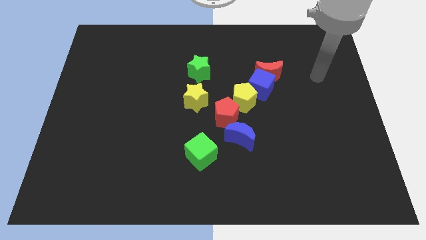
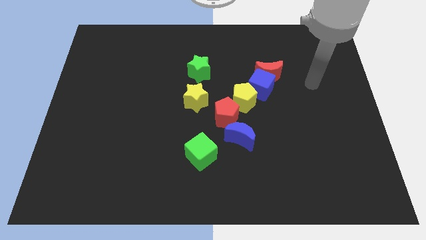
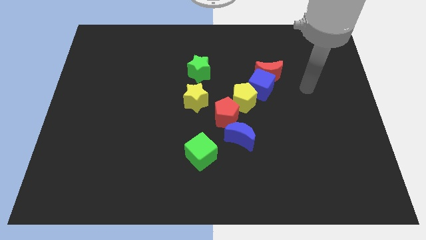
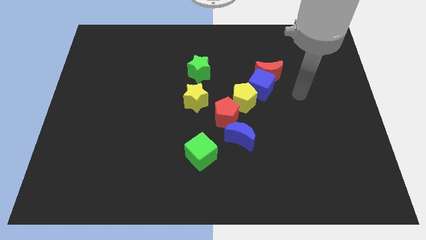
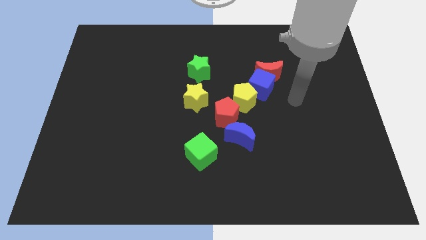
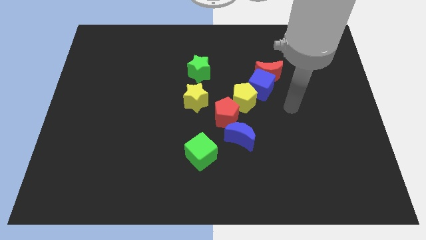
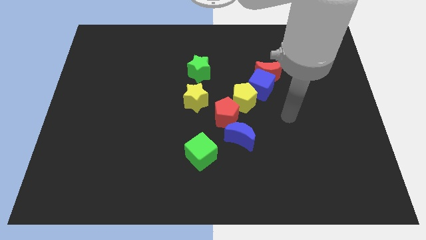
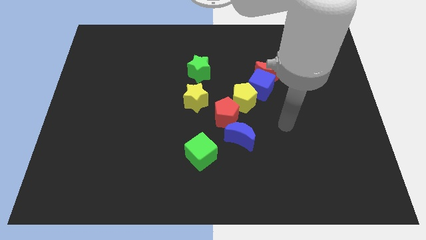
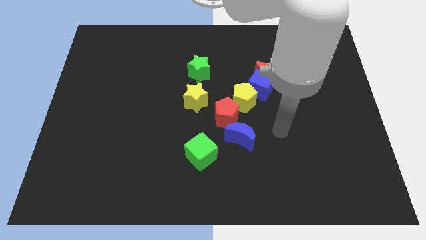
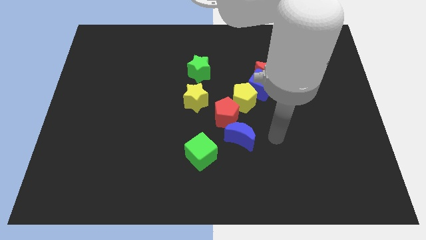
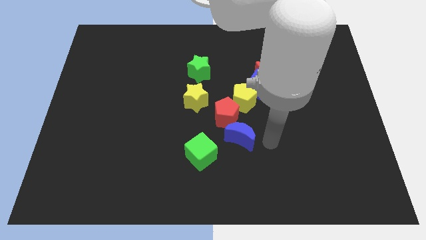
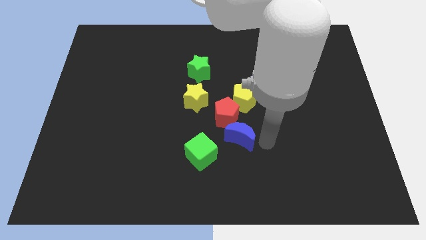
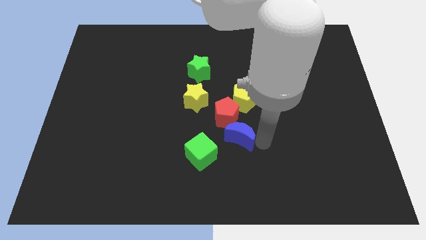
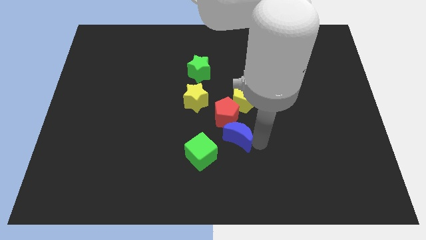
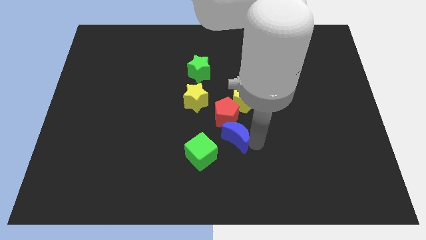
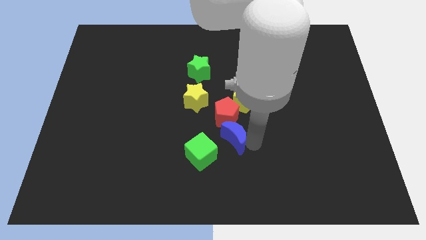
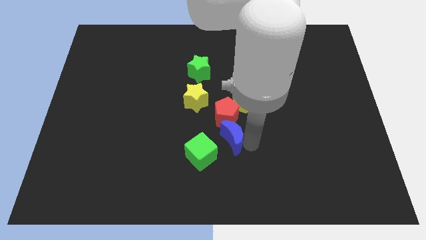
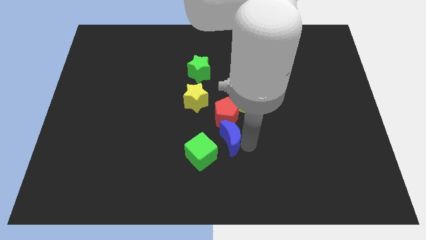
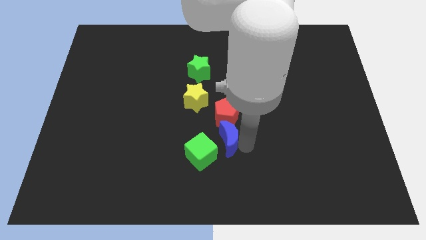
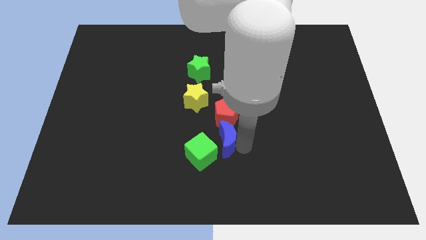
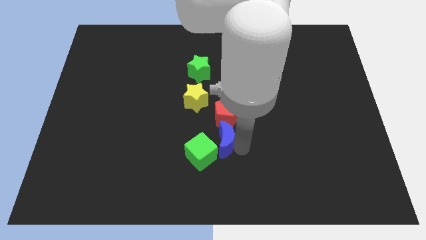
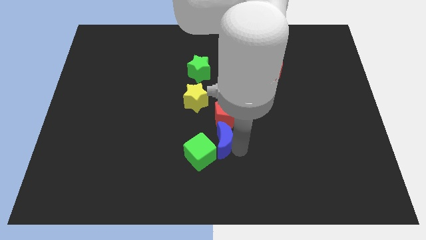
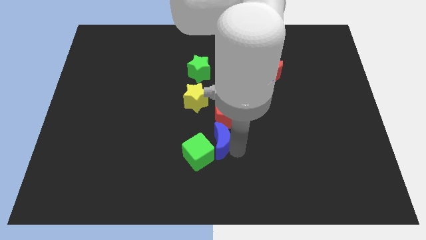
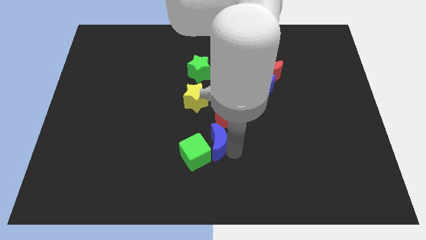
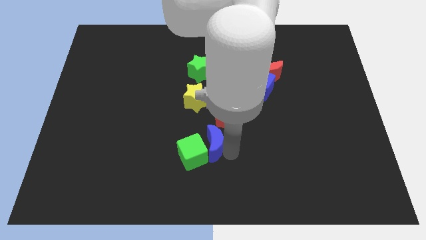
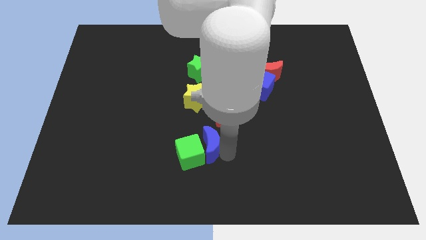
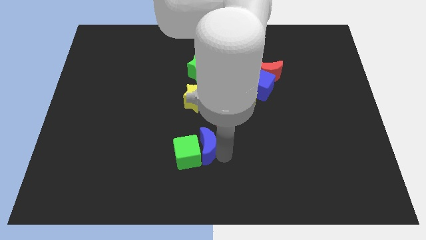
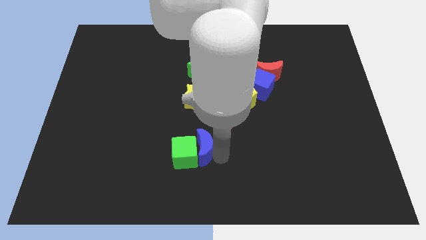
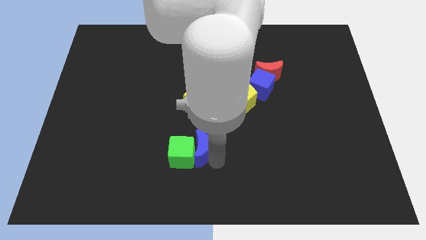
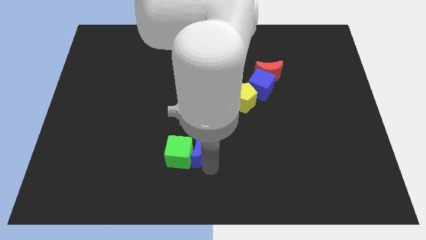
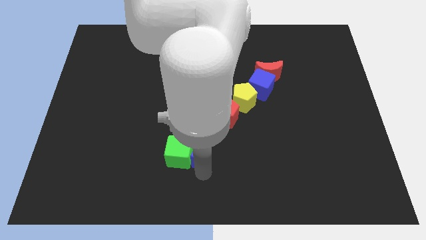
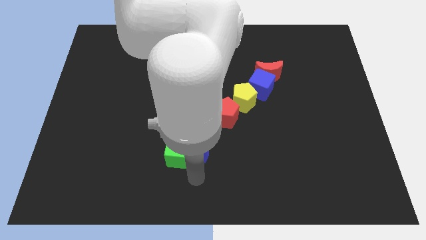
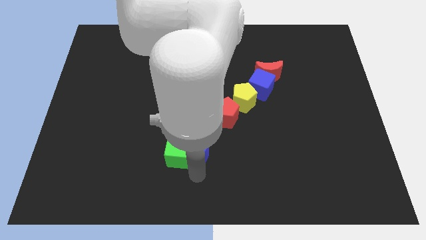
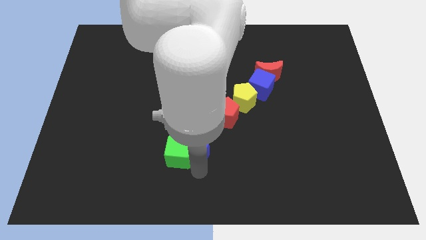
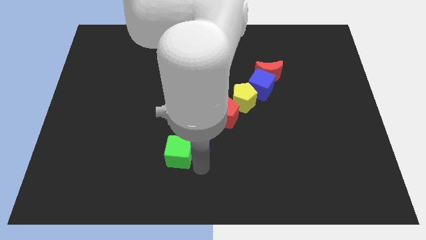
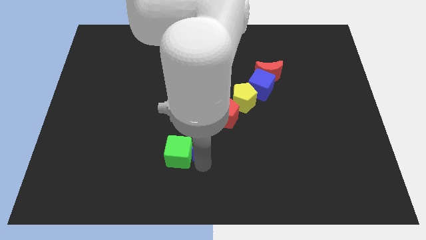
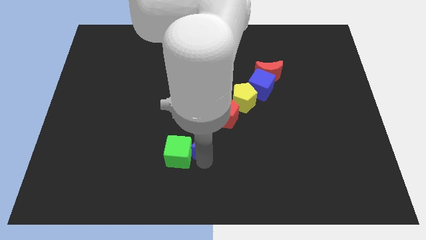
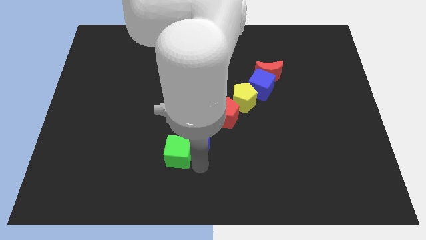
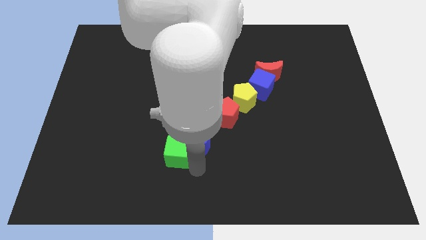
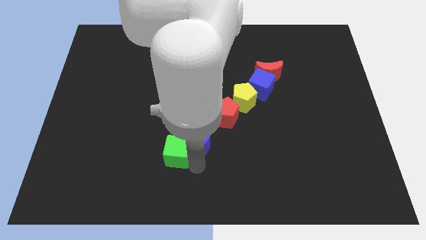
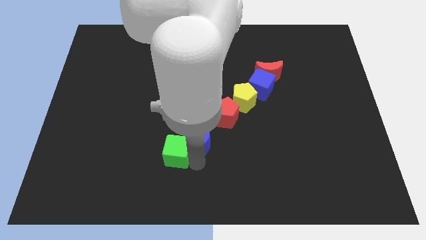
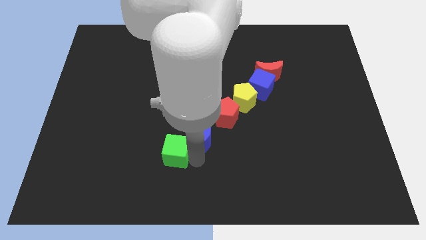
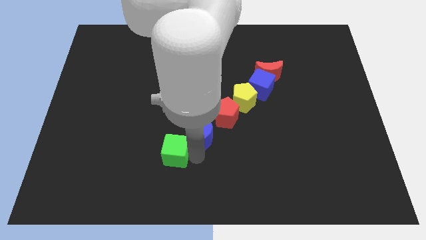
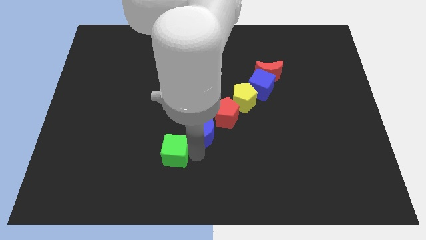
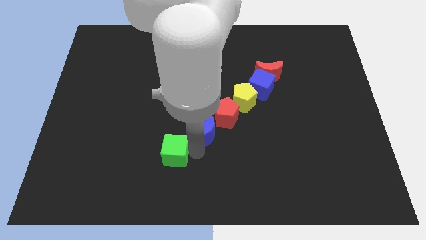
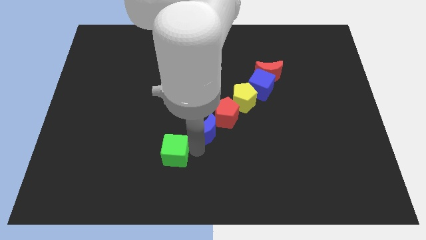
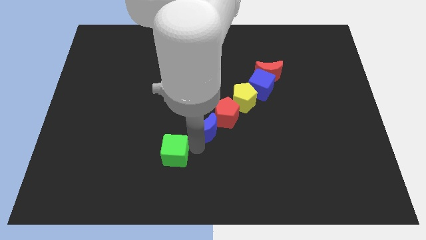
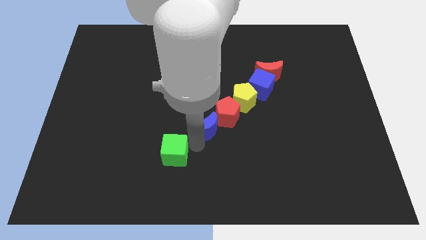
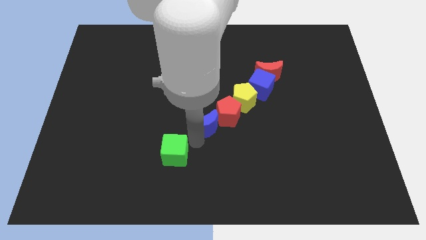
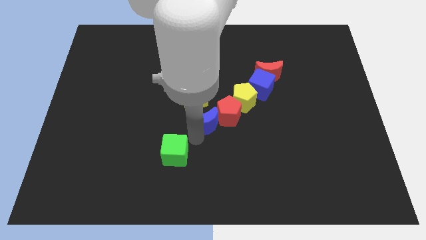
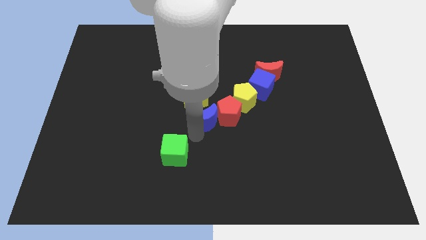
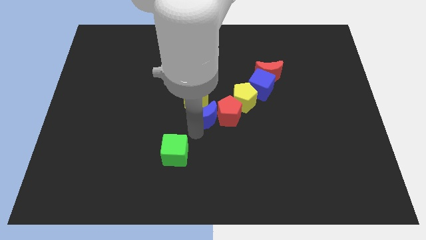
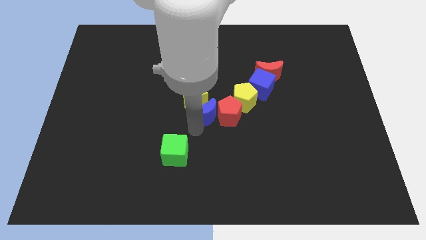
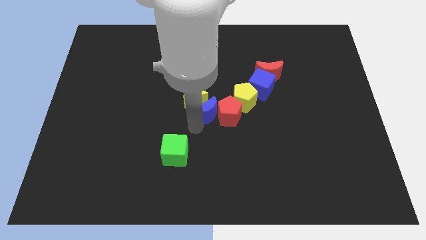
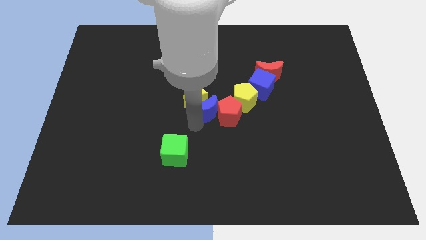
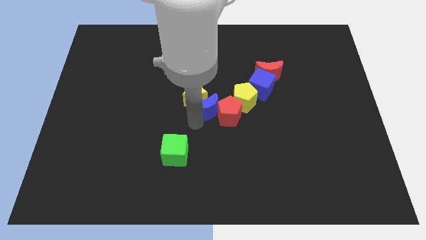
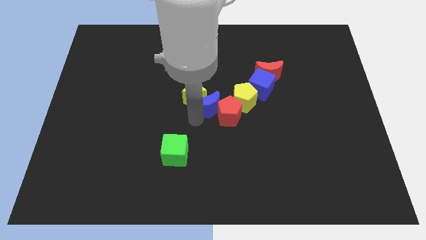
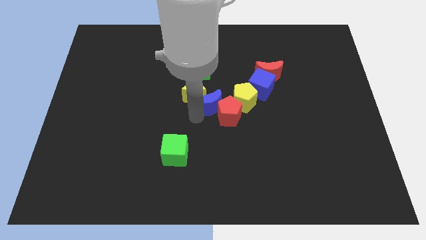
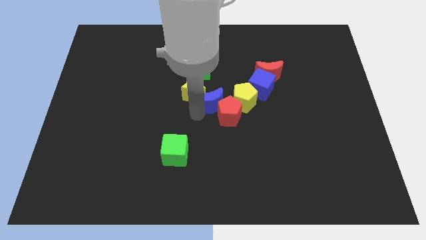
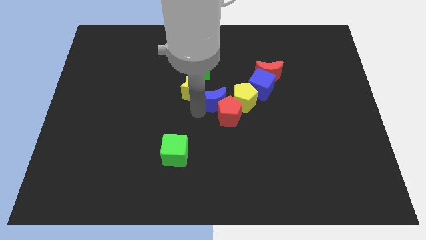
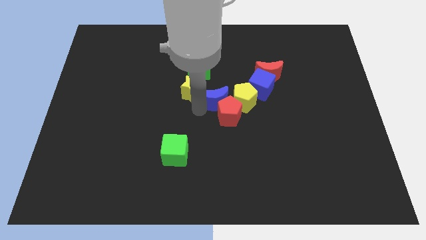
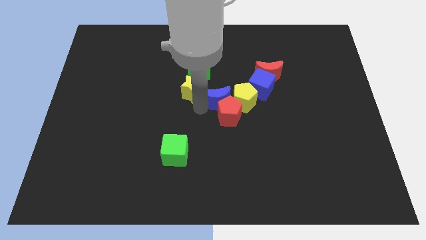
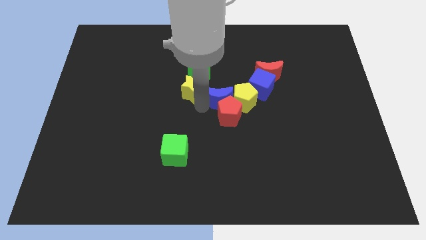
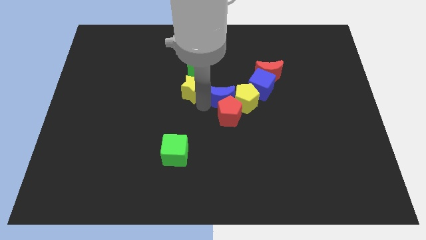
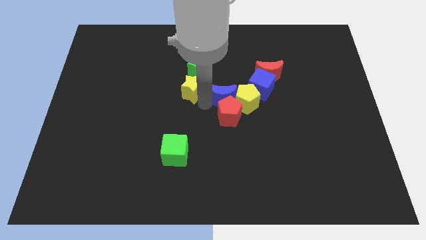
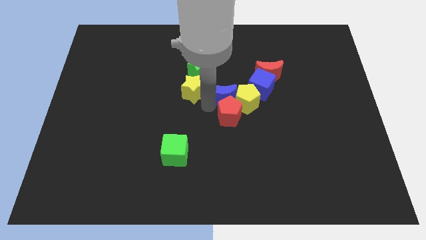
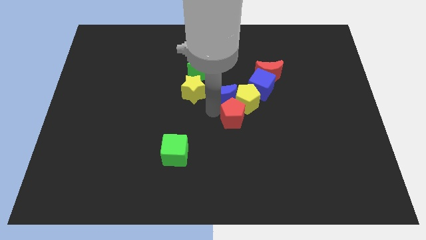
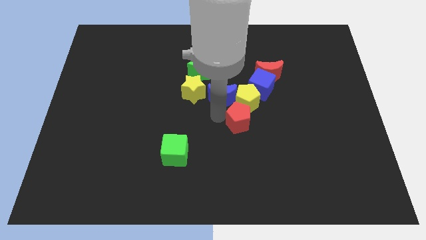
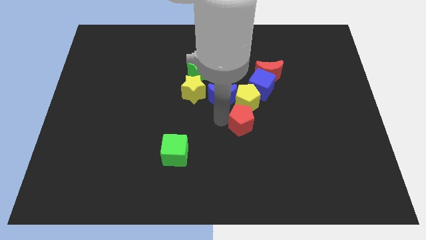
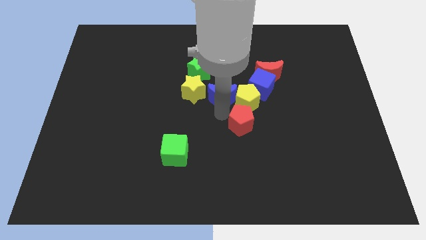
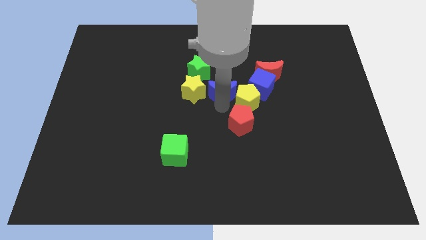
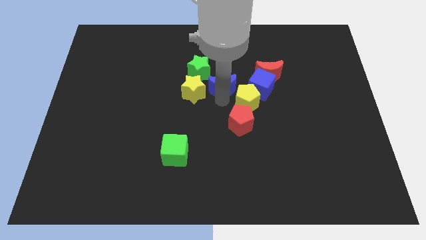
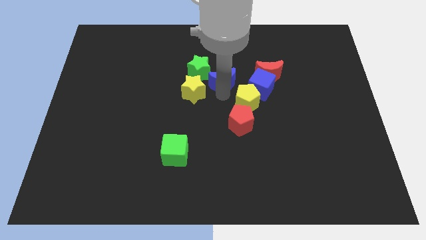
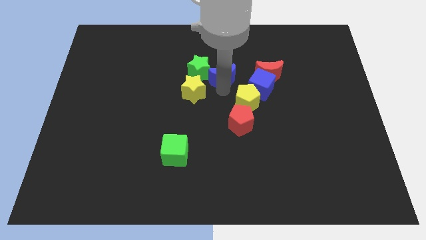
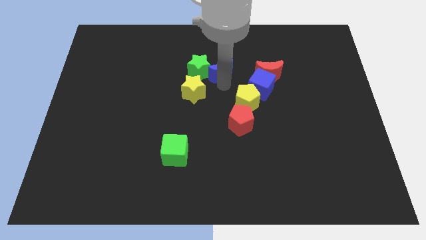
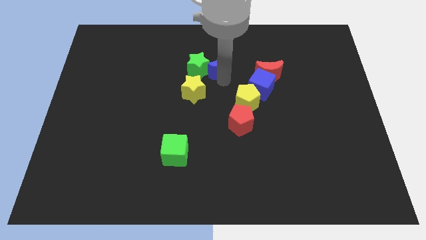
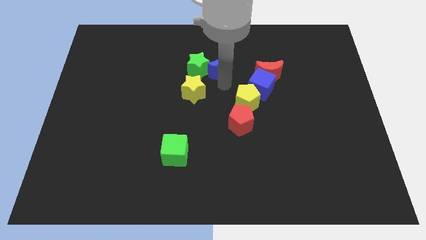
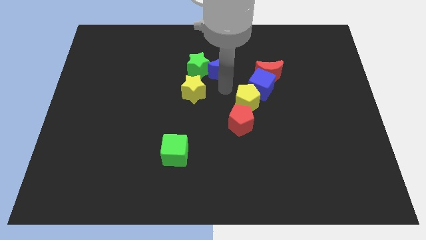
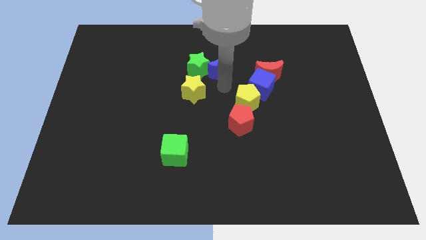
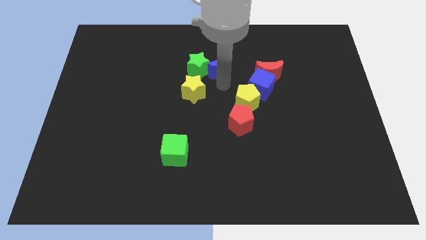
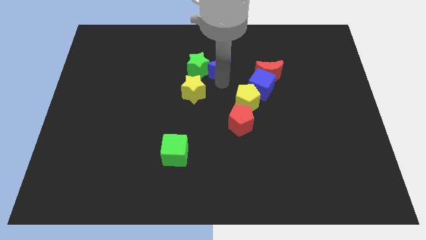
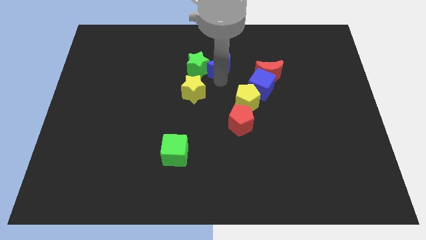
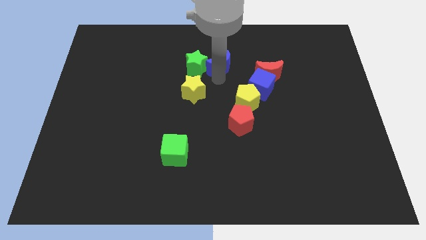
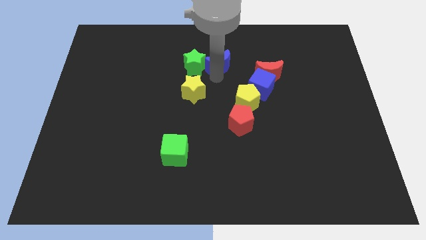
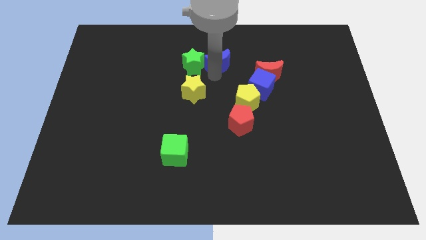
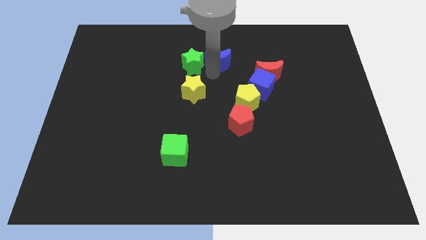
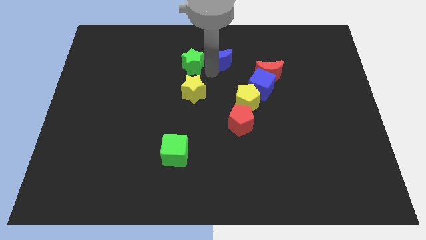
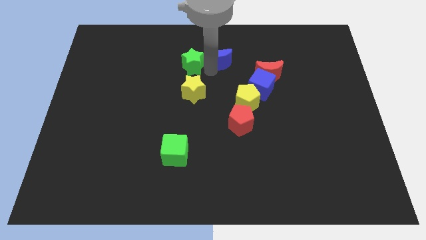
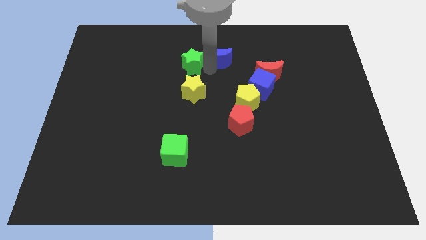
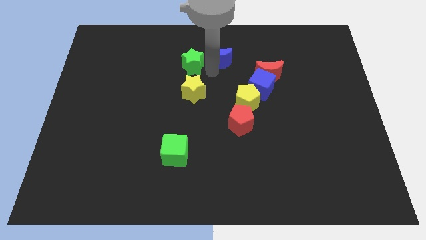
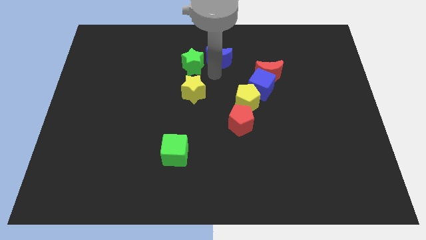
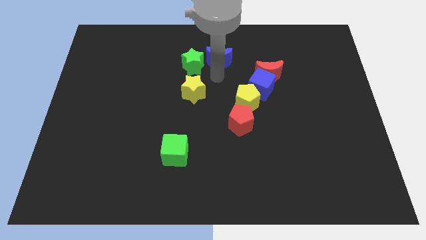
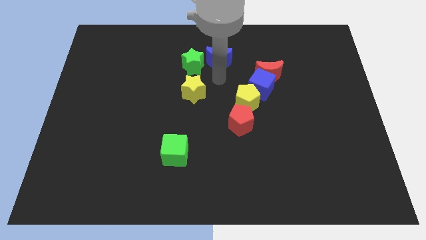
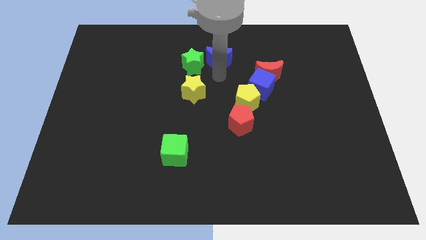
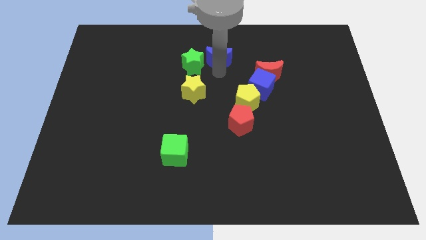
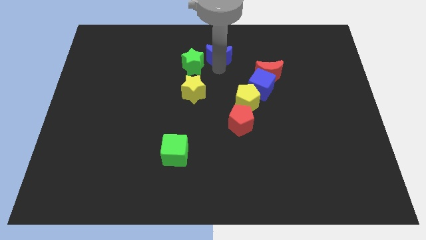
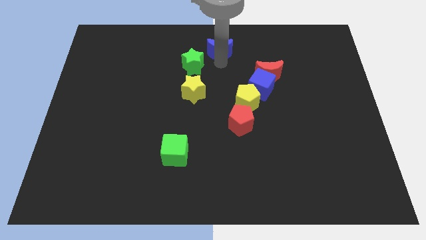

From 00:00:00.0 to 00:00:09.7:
move the blue moon to the top side
